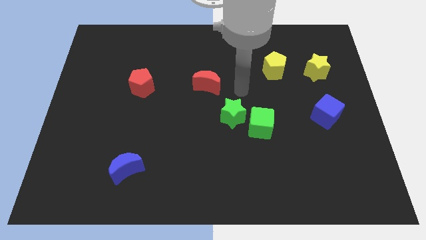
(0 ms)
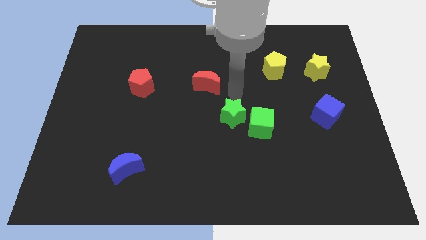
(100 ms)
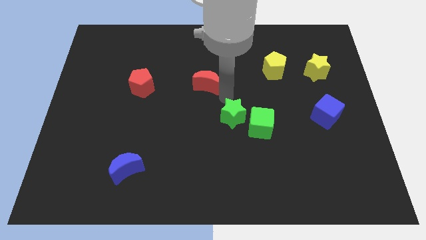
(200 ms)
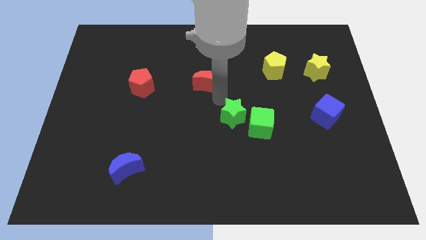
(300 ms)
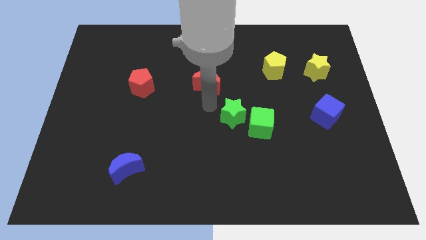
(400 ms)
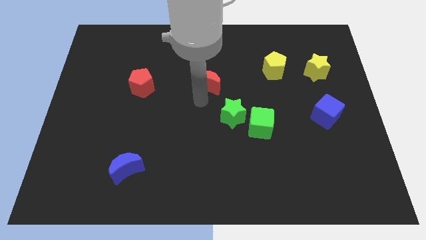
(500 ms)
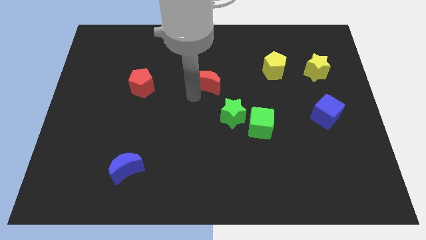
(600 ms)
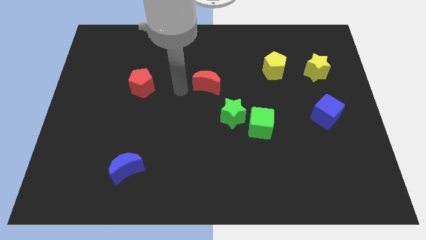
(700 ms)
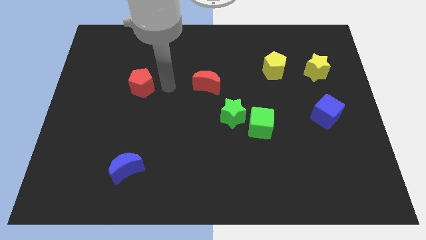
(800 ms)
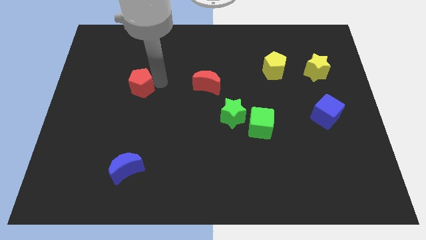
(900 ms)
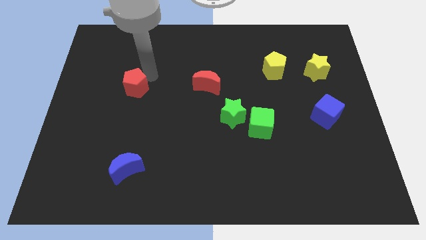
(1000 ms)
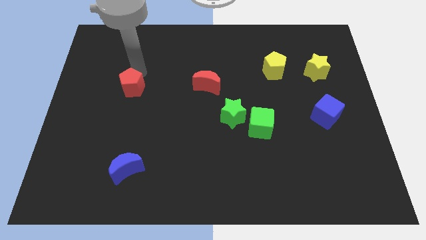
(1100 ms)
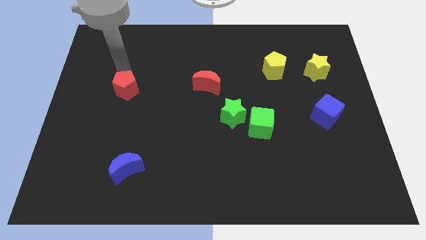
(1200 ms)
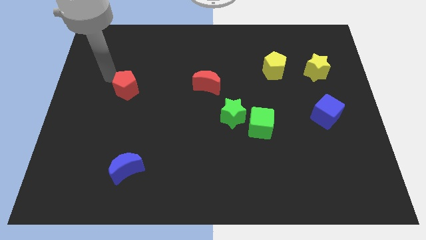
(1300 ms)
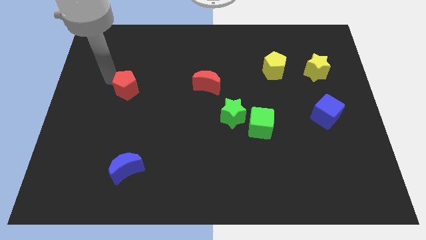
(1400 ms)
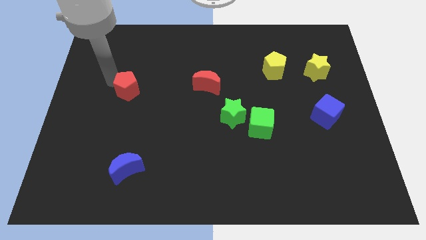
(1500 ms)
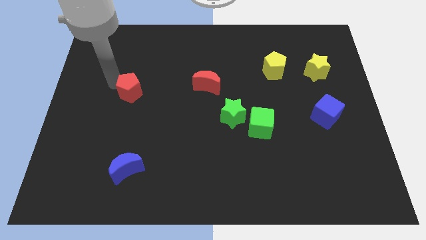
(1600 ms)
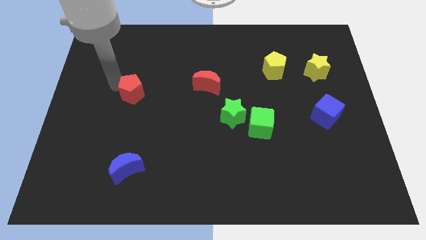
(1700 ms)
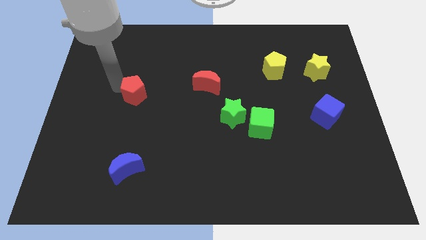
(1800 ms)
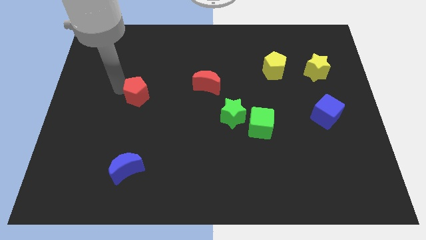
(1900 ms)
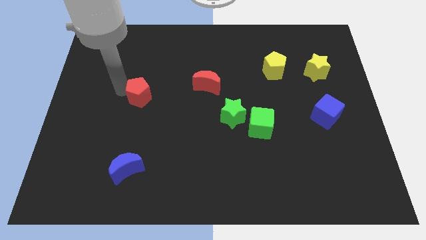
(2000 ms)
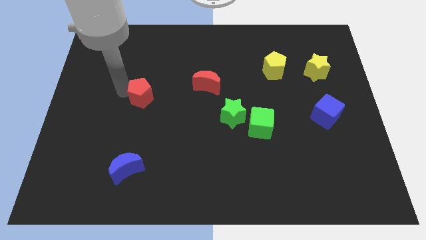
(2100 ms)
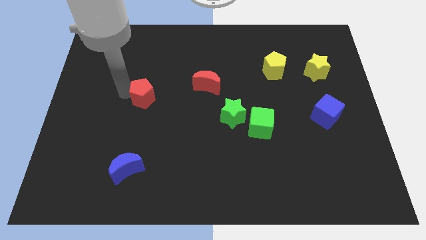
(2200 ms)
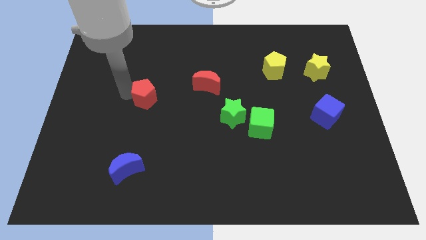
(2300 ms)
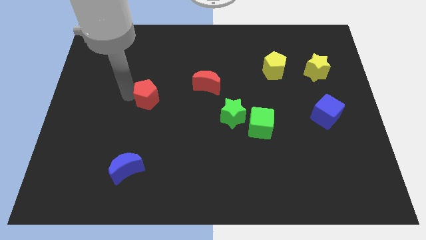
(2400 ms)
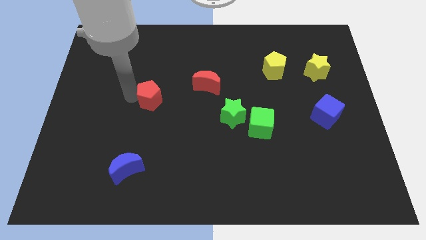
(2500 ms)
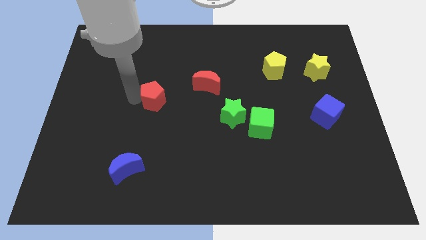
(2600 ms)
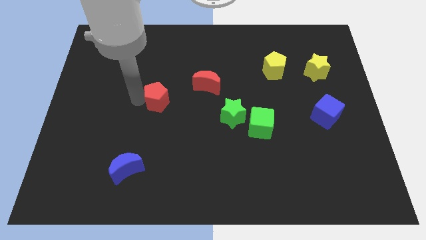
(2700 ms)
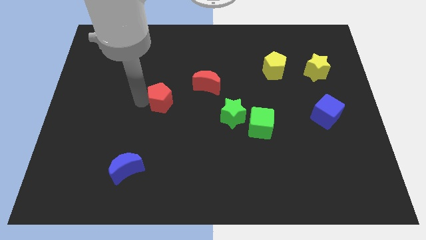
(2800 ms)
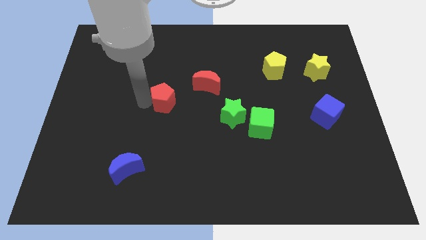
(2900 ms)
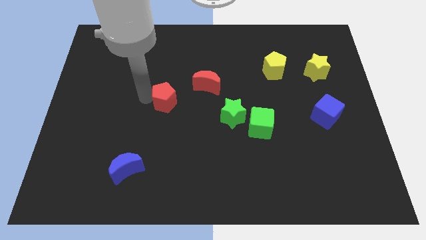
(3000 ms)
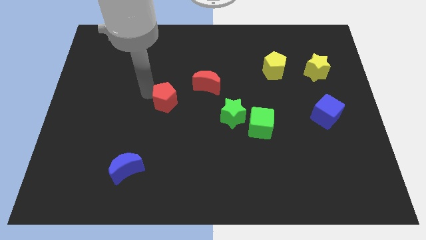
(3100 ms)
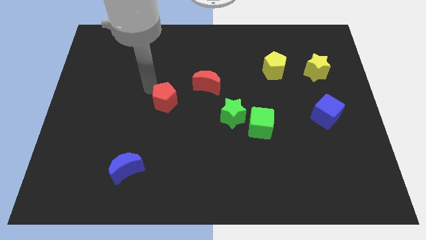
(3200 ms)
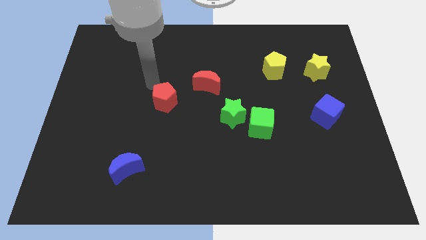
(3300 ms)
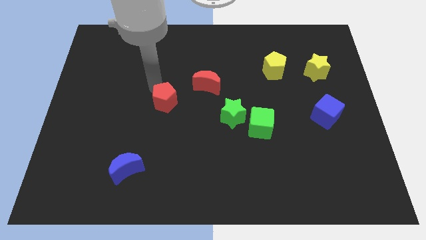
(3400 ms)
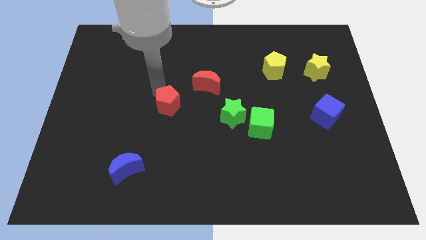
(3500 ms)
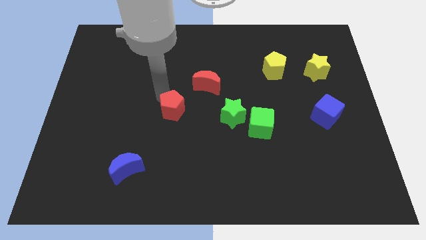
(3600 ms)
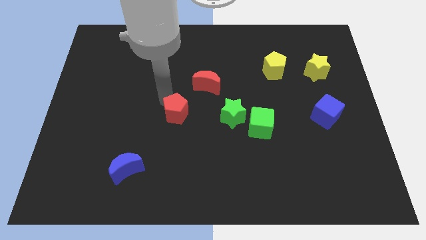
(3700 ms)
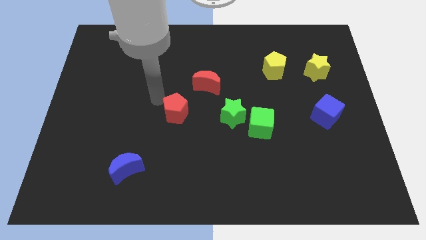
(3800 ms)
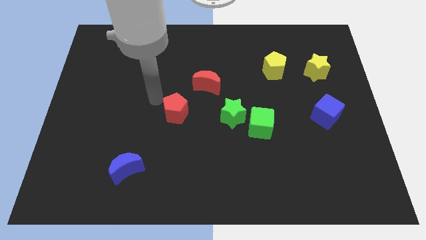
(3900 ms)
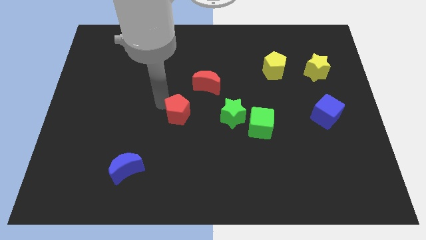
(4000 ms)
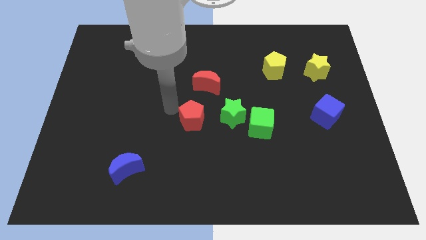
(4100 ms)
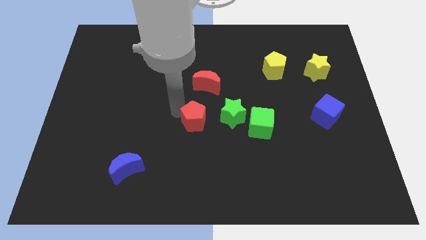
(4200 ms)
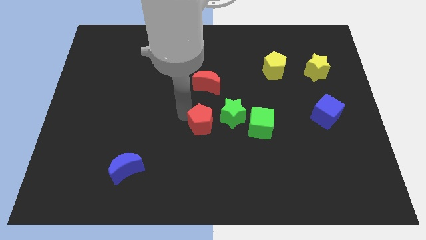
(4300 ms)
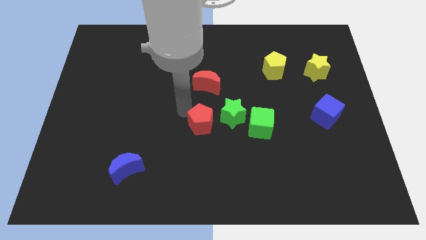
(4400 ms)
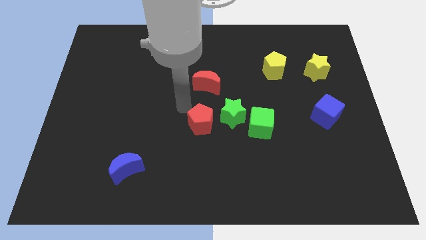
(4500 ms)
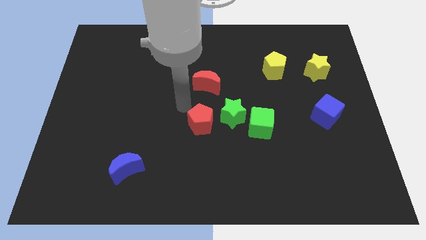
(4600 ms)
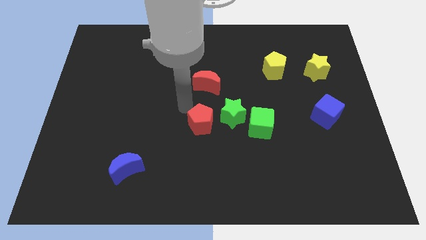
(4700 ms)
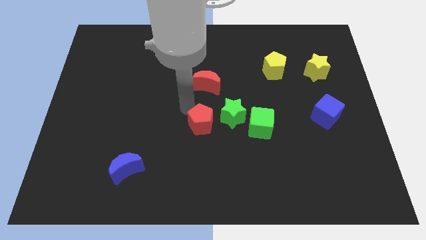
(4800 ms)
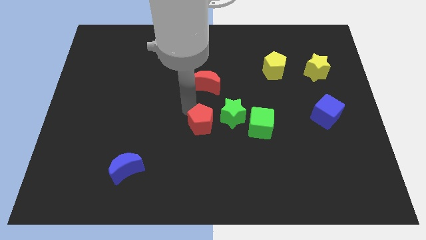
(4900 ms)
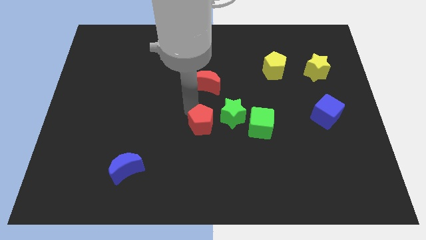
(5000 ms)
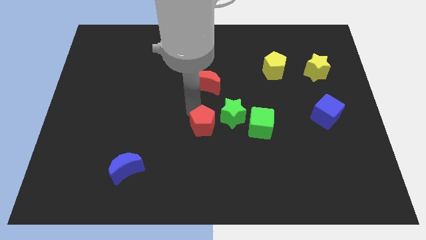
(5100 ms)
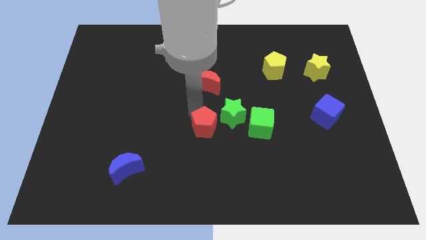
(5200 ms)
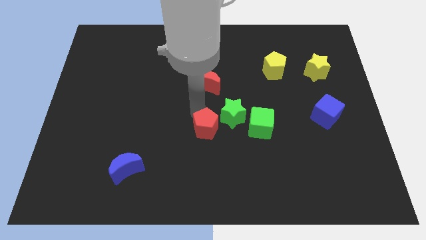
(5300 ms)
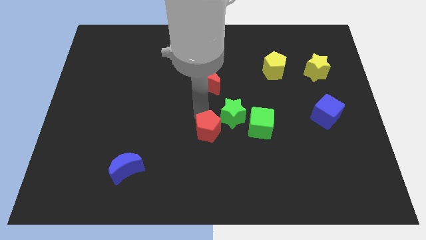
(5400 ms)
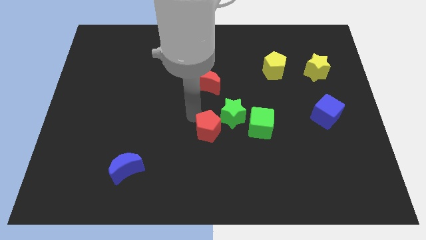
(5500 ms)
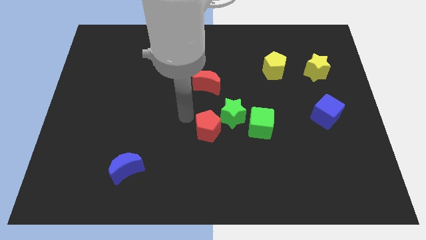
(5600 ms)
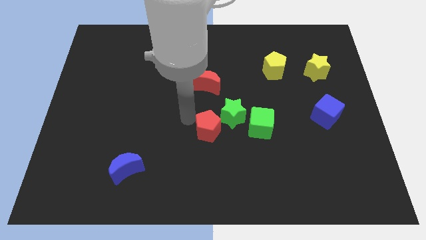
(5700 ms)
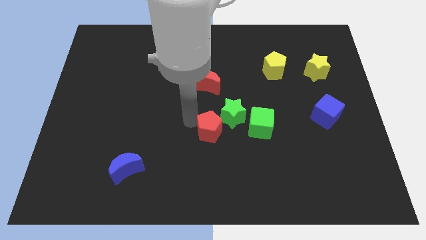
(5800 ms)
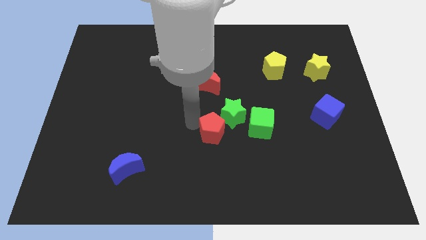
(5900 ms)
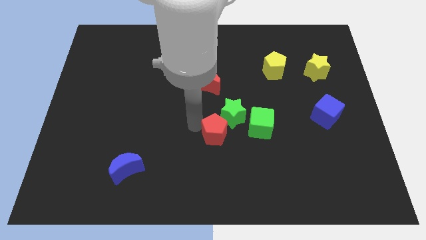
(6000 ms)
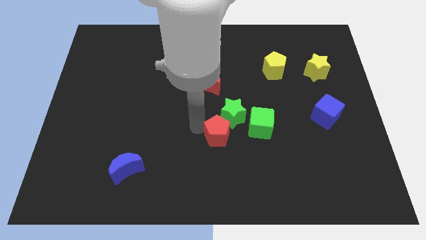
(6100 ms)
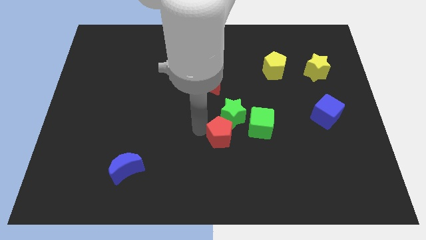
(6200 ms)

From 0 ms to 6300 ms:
slide the red pentagon diagonally down and to the left of the green cube

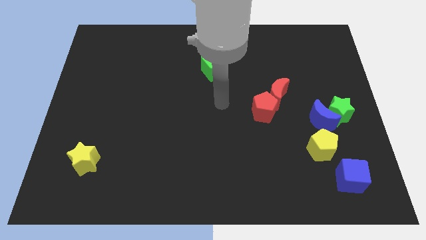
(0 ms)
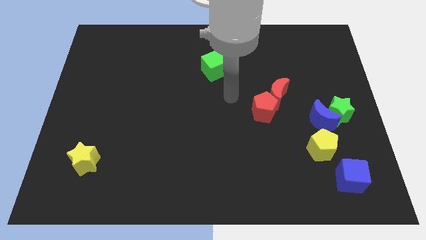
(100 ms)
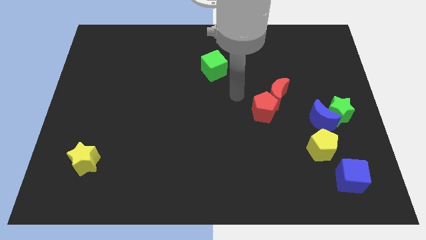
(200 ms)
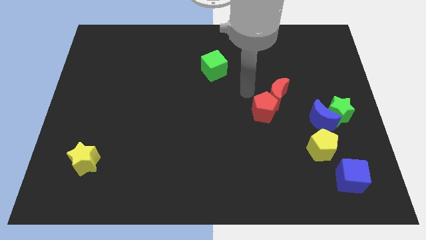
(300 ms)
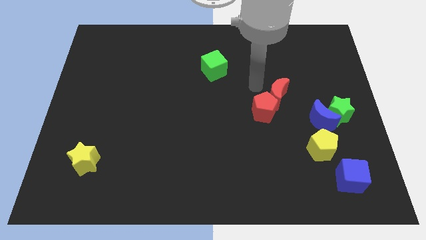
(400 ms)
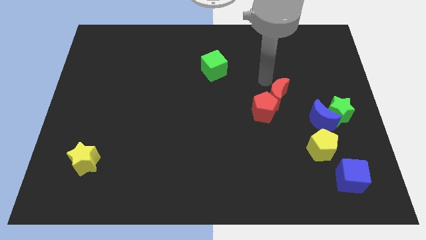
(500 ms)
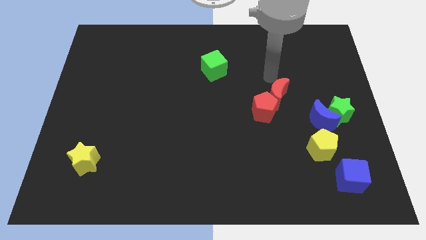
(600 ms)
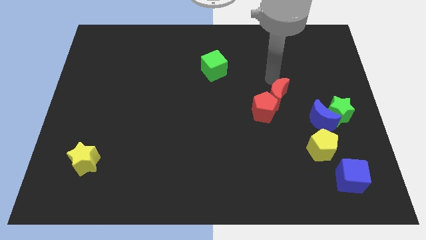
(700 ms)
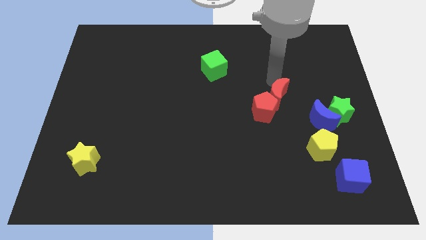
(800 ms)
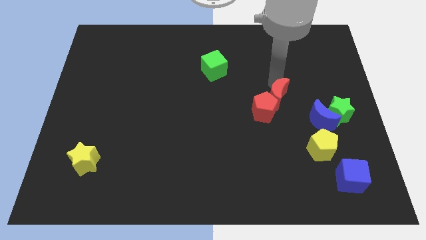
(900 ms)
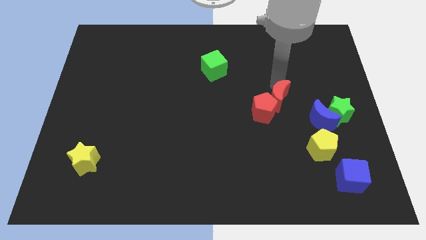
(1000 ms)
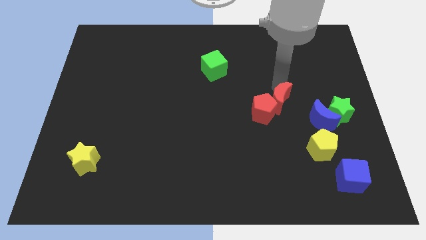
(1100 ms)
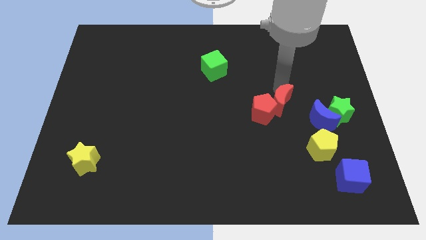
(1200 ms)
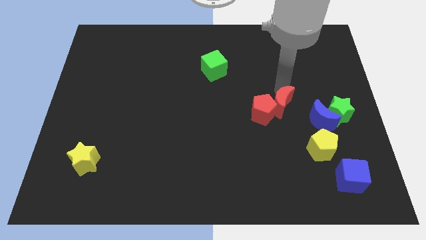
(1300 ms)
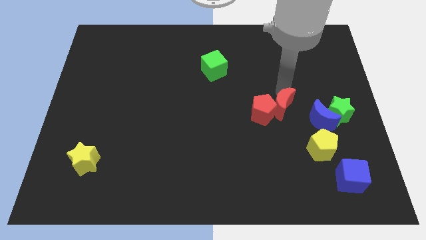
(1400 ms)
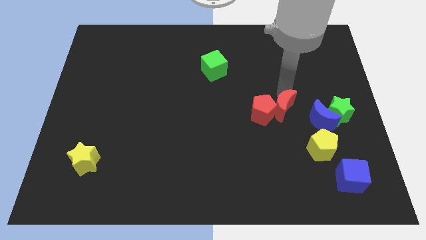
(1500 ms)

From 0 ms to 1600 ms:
move the red moon to the bottom right side of the red pentagon
